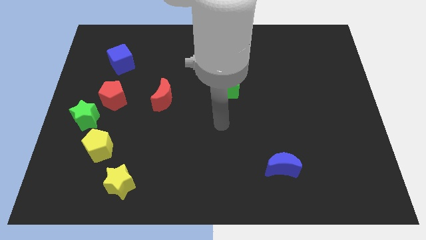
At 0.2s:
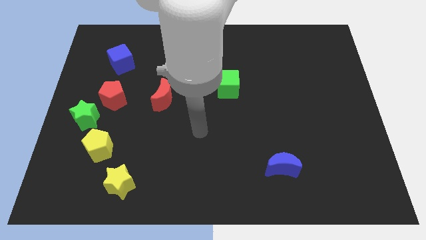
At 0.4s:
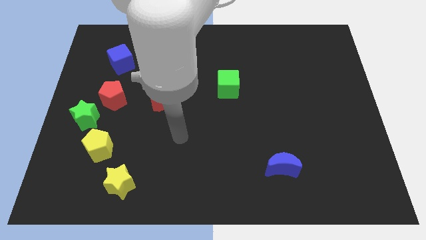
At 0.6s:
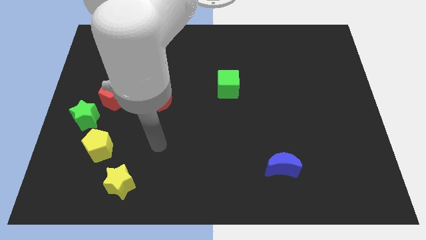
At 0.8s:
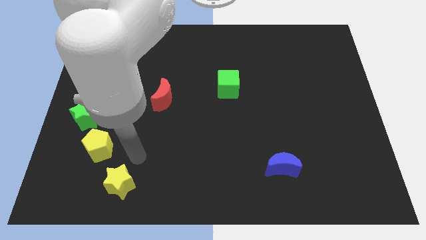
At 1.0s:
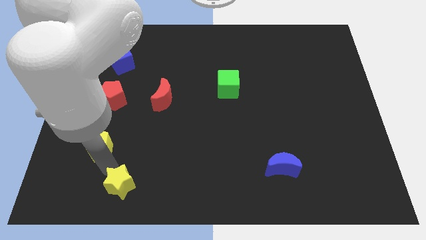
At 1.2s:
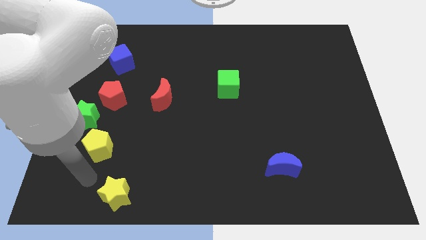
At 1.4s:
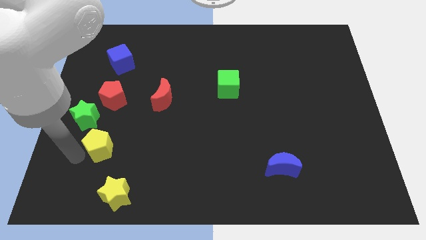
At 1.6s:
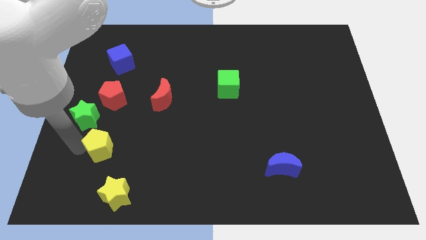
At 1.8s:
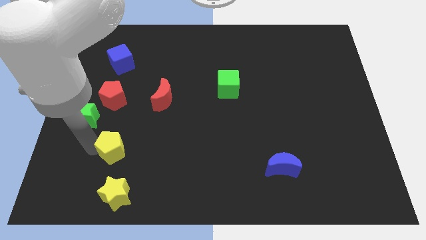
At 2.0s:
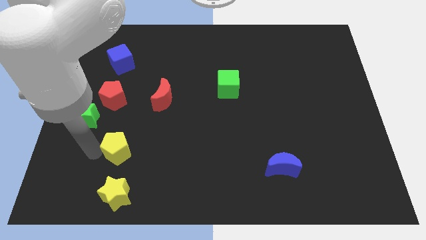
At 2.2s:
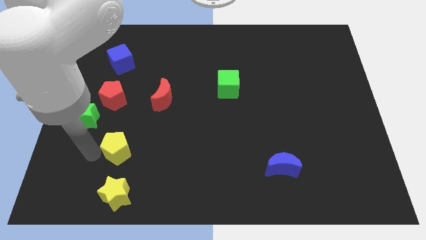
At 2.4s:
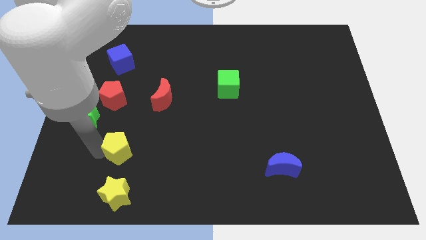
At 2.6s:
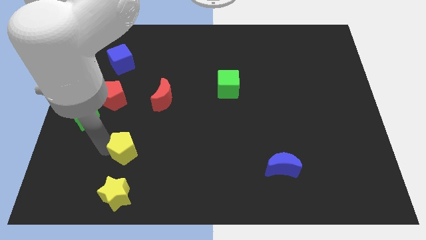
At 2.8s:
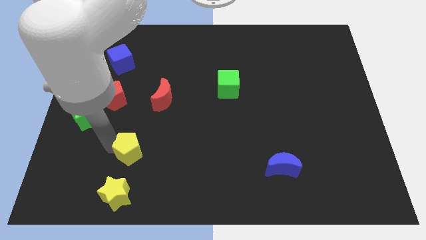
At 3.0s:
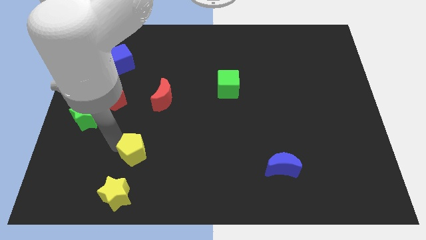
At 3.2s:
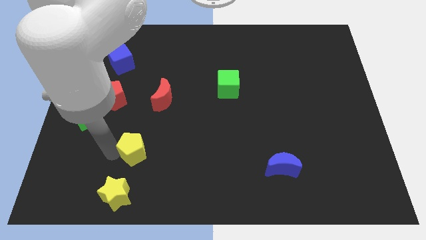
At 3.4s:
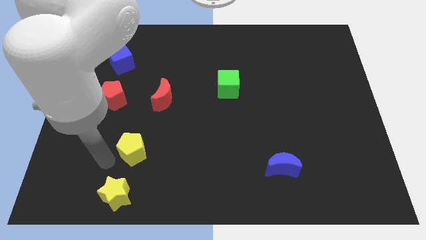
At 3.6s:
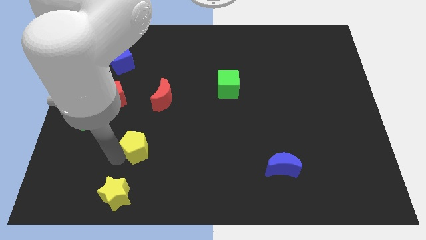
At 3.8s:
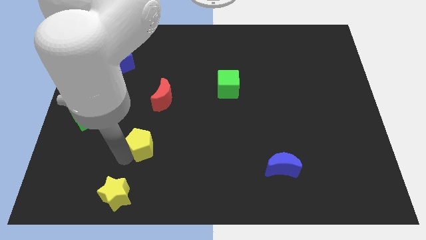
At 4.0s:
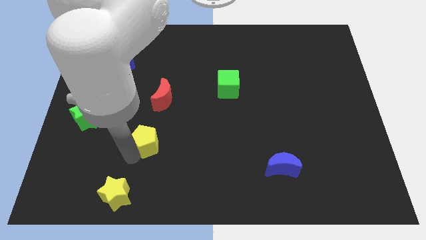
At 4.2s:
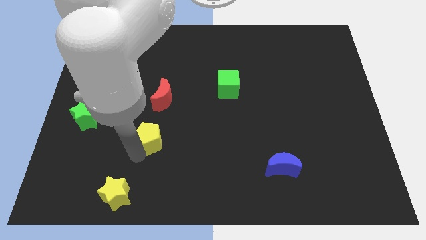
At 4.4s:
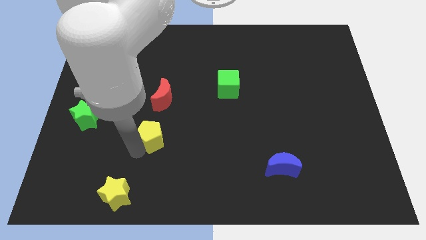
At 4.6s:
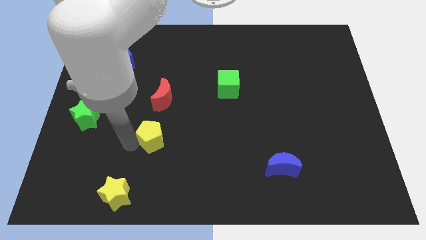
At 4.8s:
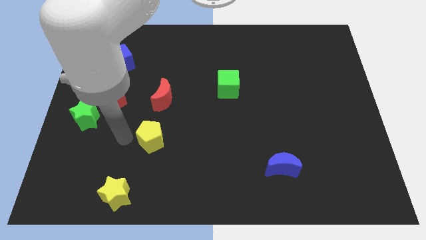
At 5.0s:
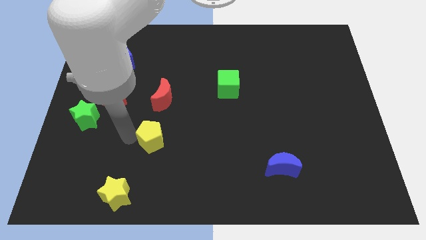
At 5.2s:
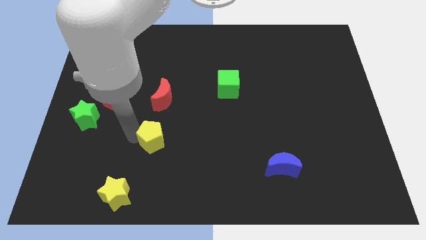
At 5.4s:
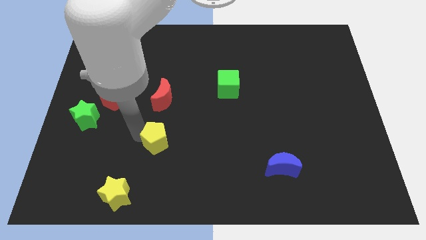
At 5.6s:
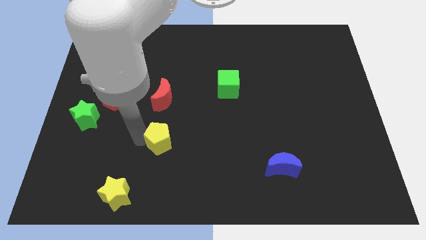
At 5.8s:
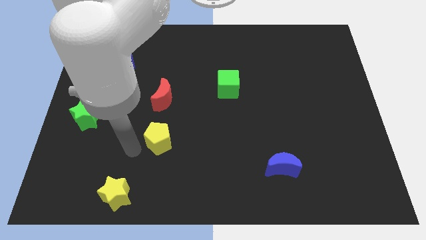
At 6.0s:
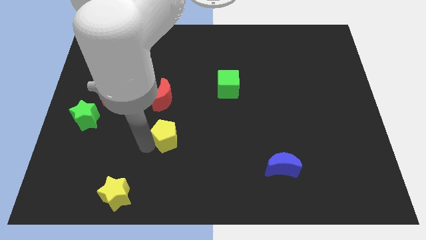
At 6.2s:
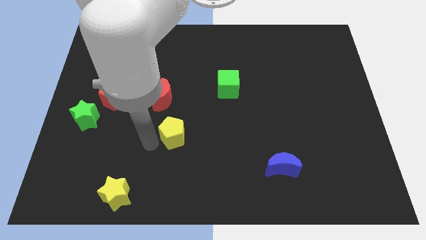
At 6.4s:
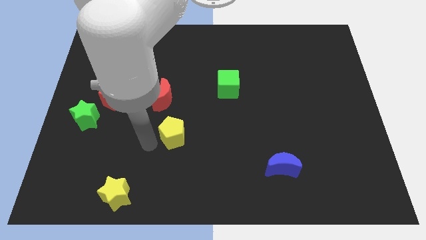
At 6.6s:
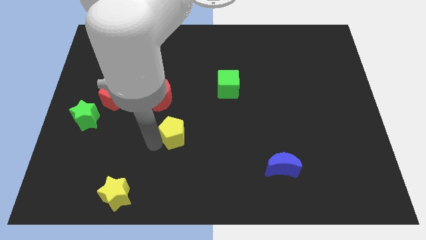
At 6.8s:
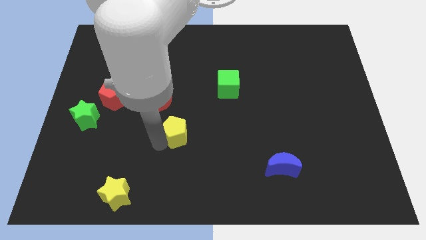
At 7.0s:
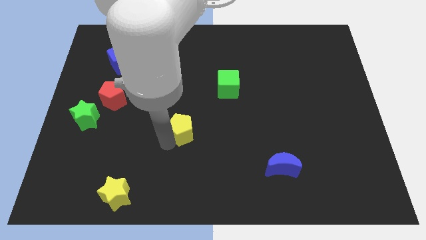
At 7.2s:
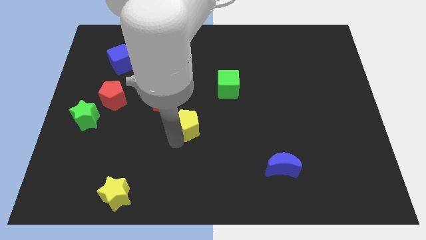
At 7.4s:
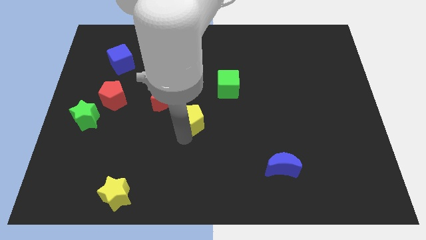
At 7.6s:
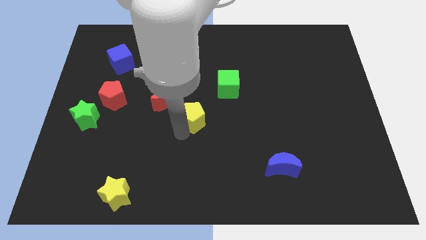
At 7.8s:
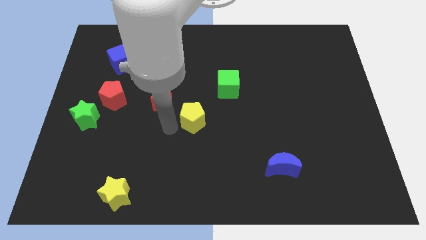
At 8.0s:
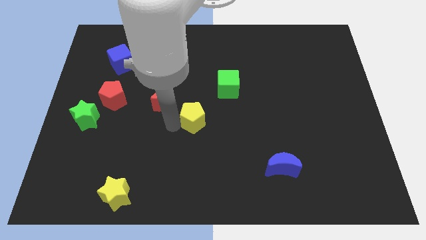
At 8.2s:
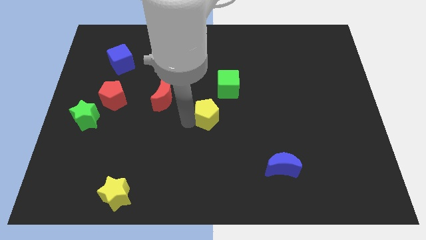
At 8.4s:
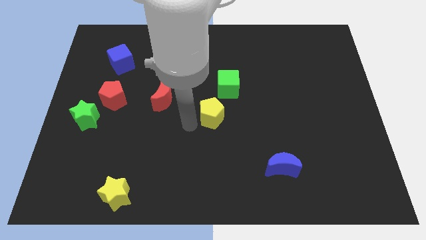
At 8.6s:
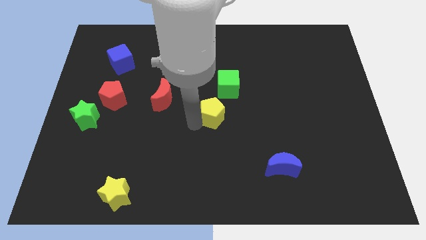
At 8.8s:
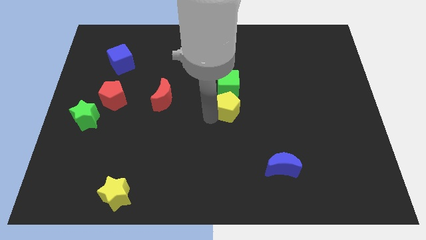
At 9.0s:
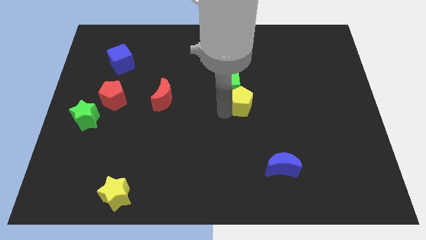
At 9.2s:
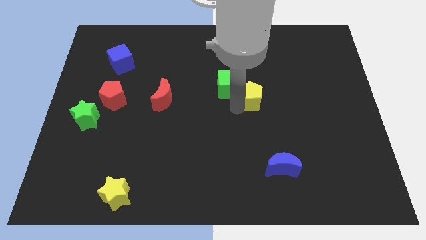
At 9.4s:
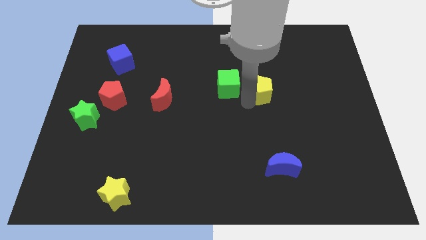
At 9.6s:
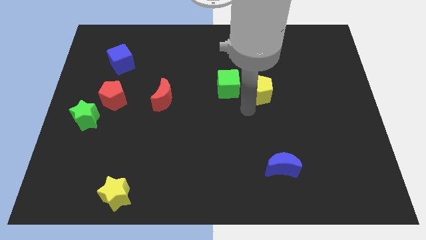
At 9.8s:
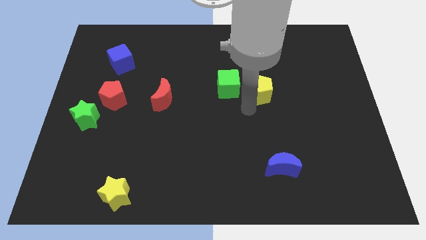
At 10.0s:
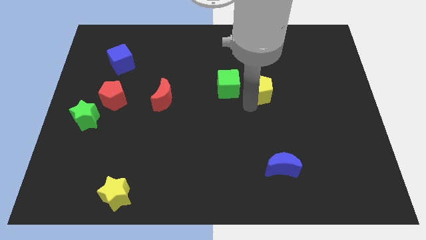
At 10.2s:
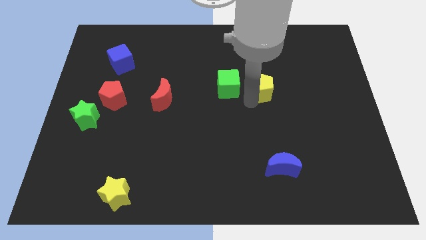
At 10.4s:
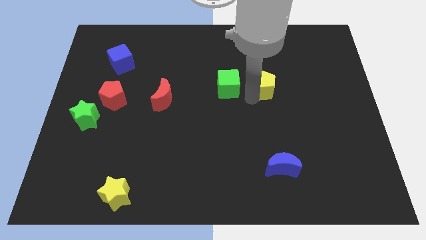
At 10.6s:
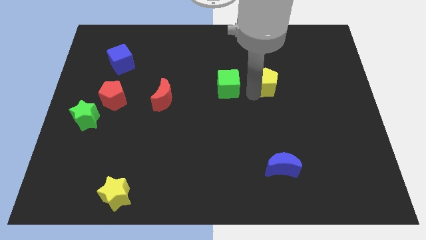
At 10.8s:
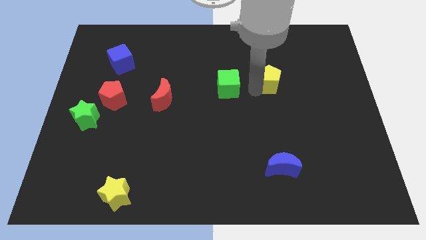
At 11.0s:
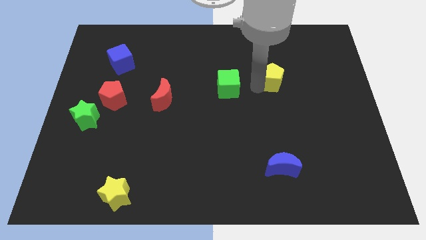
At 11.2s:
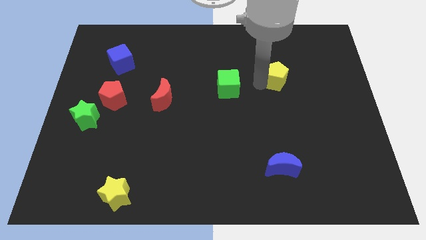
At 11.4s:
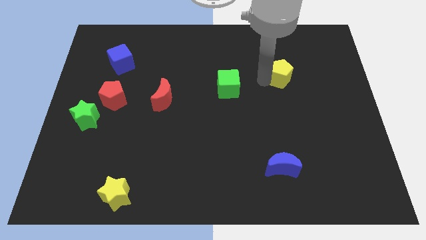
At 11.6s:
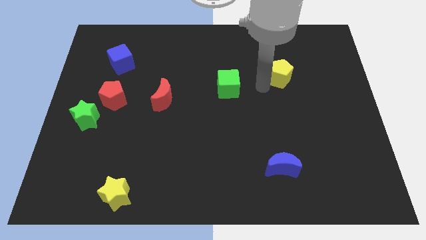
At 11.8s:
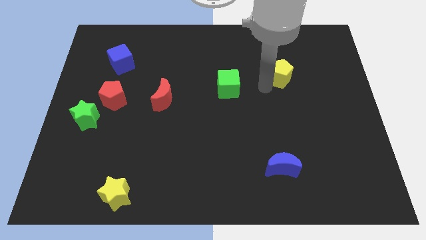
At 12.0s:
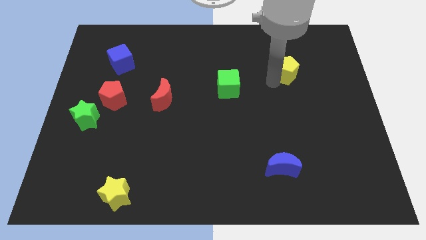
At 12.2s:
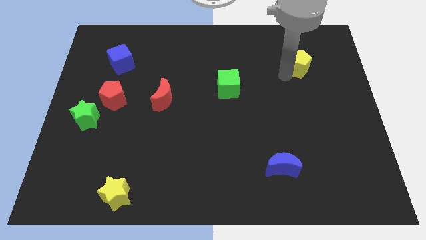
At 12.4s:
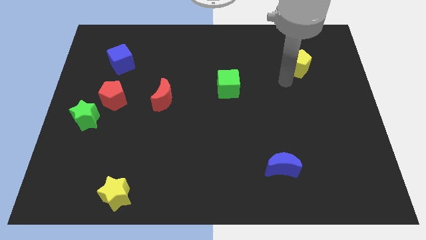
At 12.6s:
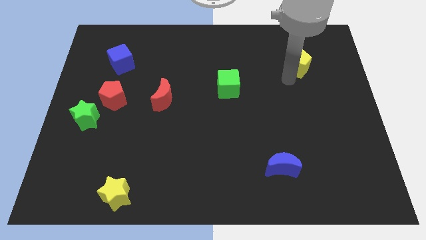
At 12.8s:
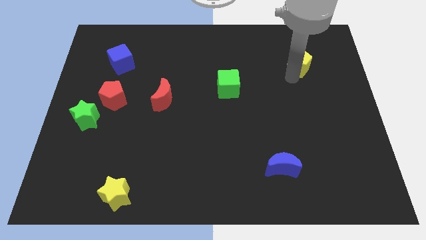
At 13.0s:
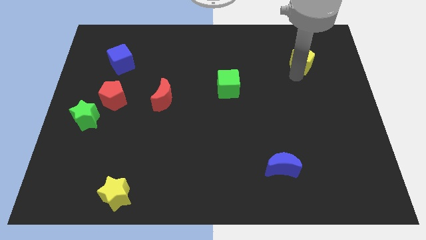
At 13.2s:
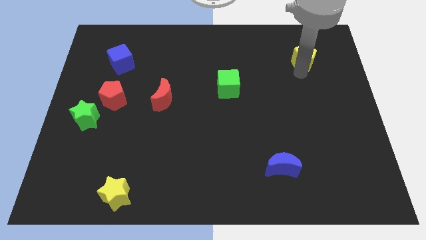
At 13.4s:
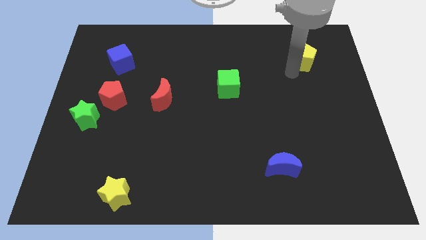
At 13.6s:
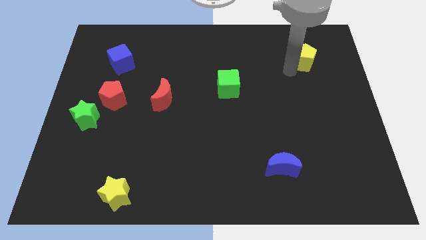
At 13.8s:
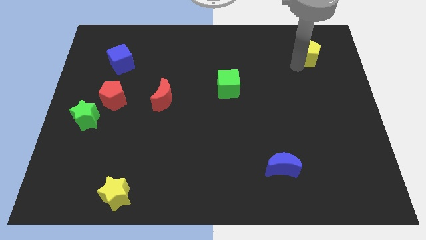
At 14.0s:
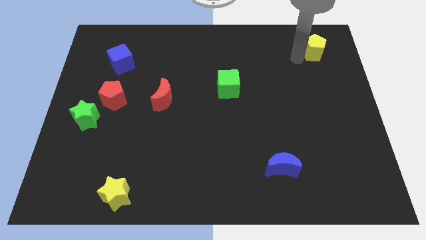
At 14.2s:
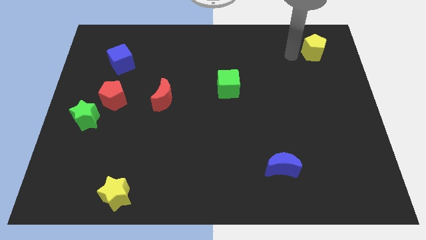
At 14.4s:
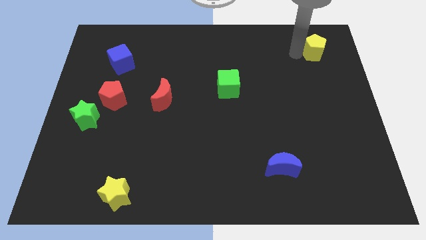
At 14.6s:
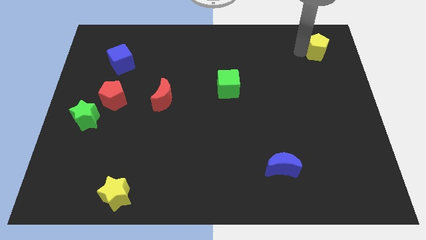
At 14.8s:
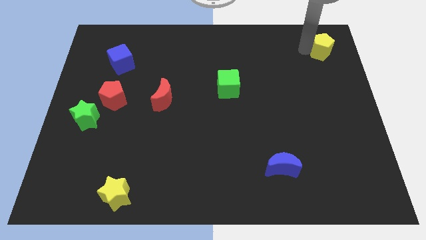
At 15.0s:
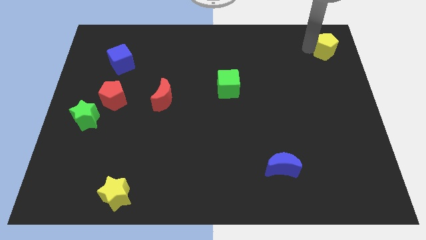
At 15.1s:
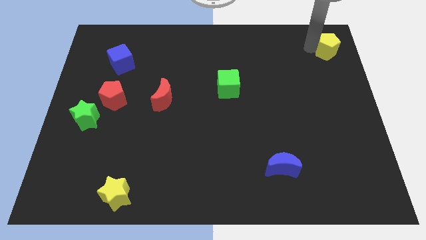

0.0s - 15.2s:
put the yellow pentagon to the top right
